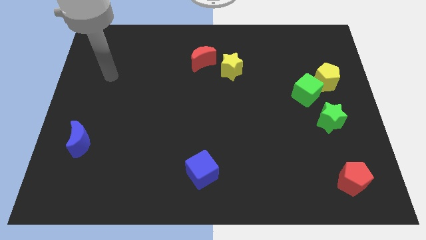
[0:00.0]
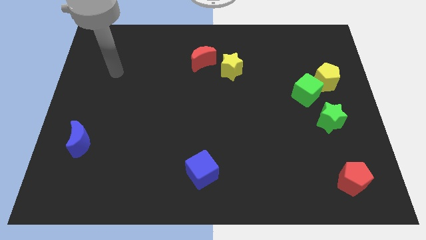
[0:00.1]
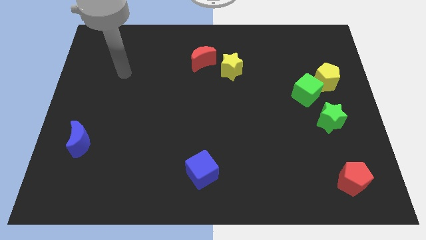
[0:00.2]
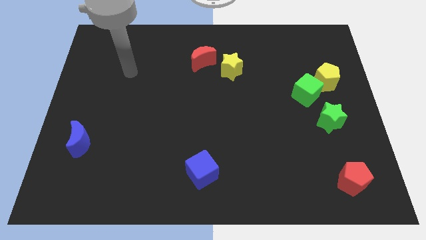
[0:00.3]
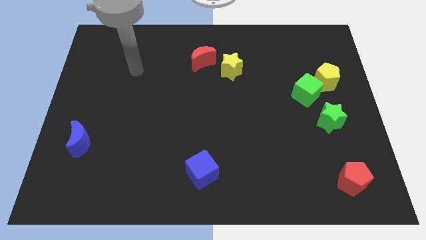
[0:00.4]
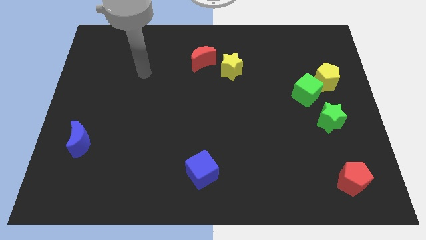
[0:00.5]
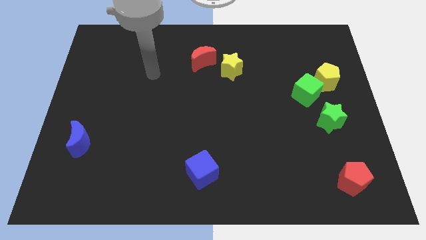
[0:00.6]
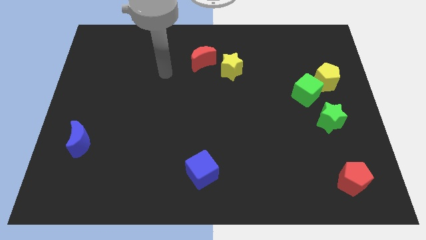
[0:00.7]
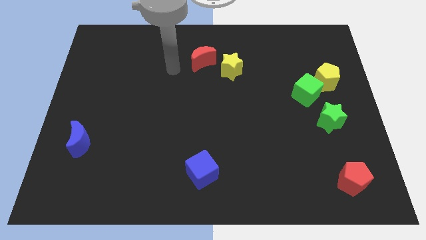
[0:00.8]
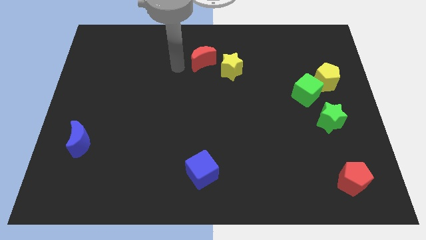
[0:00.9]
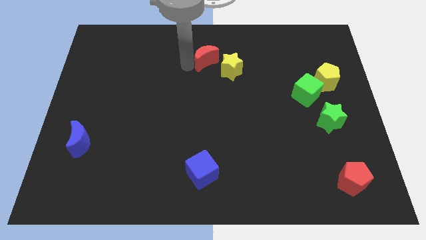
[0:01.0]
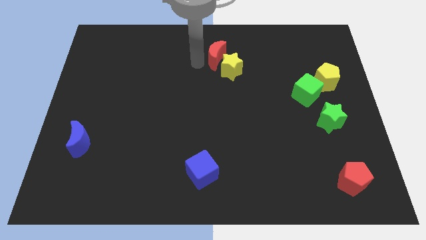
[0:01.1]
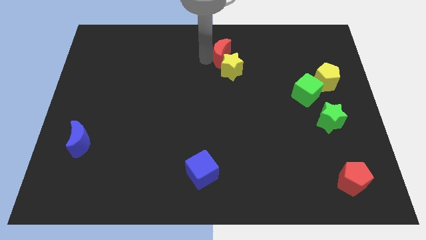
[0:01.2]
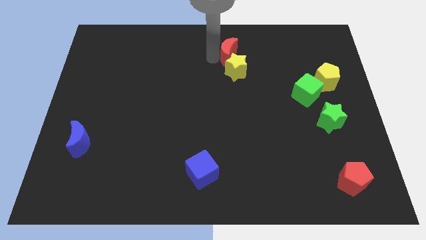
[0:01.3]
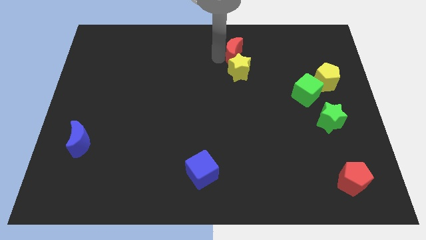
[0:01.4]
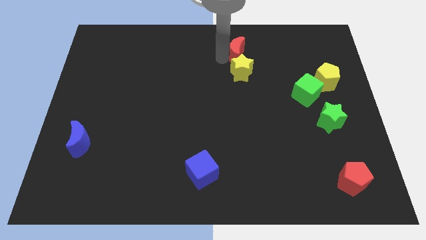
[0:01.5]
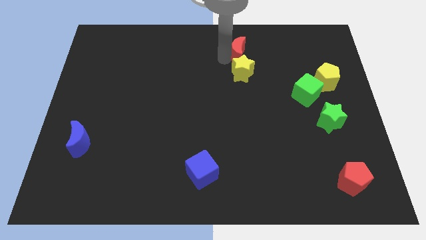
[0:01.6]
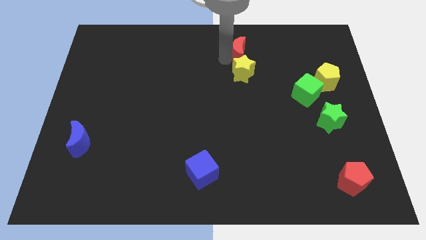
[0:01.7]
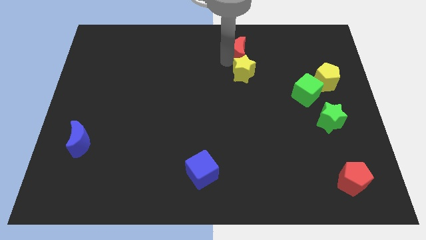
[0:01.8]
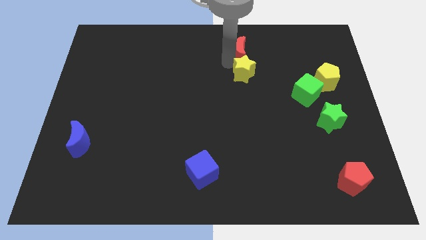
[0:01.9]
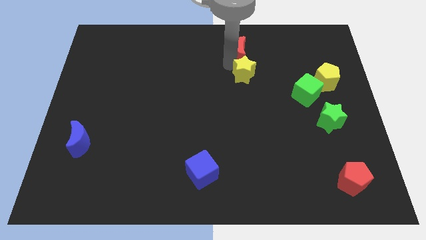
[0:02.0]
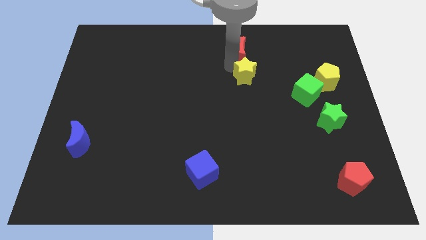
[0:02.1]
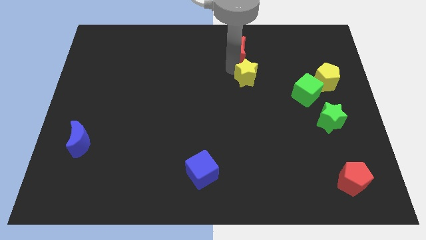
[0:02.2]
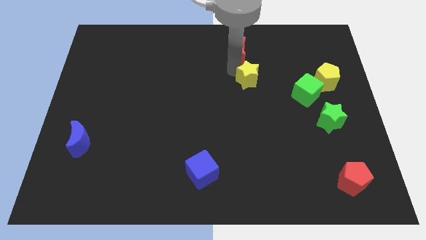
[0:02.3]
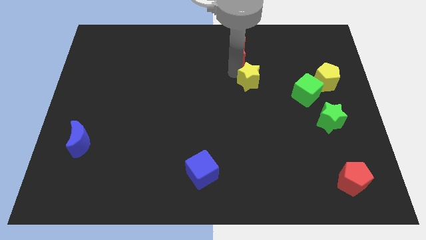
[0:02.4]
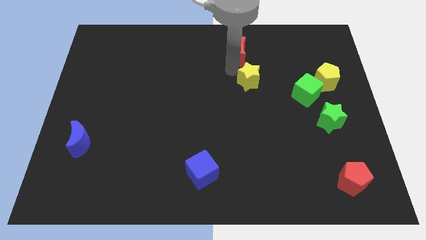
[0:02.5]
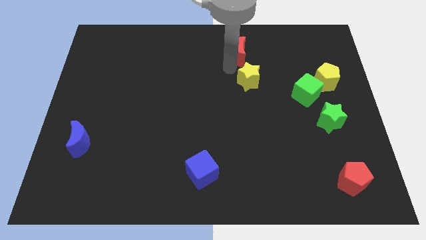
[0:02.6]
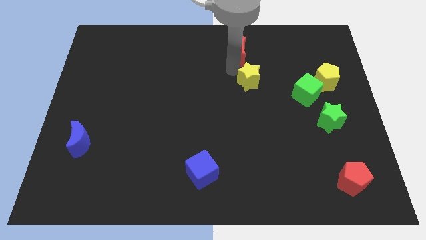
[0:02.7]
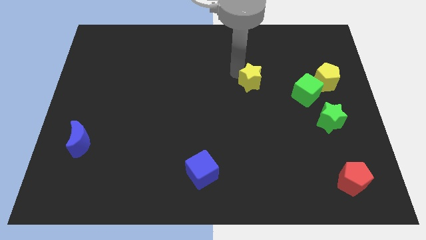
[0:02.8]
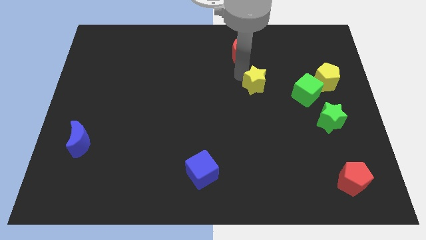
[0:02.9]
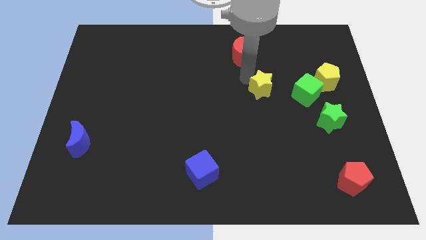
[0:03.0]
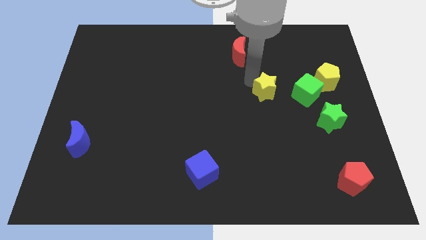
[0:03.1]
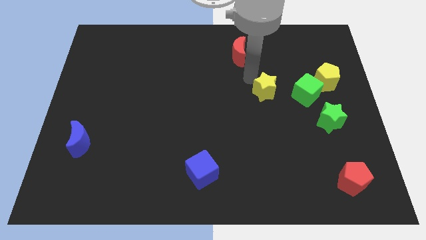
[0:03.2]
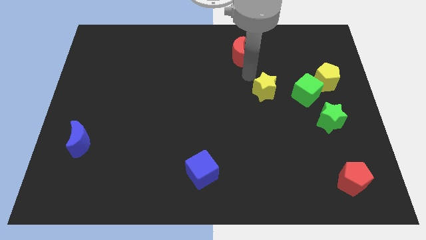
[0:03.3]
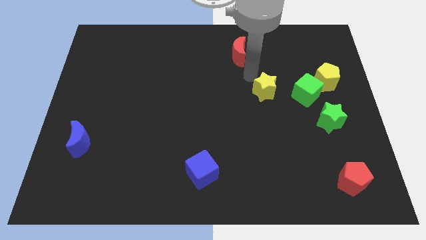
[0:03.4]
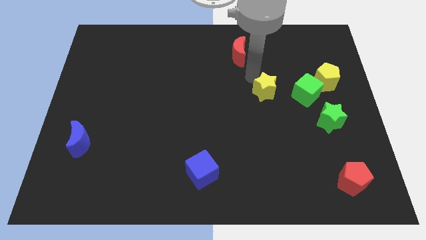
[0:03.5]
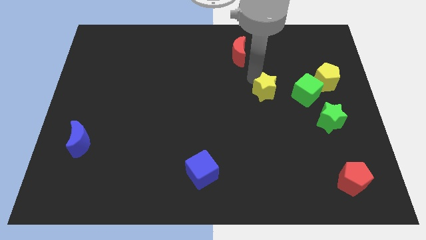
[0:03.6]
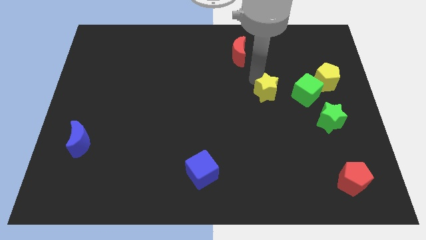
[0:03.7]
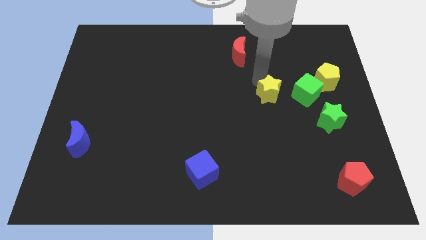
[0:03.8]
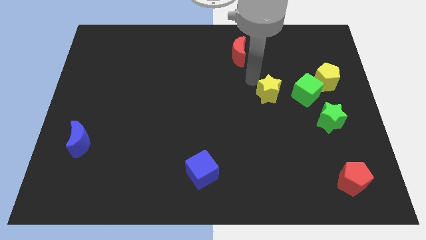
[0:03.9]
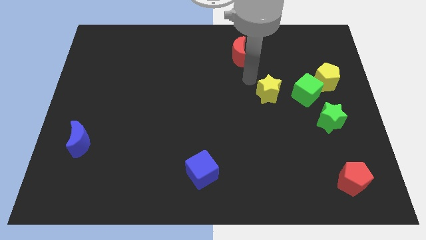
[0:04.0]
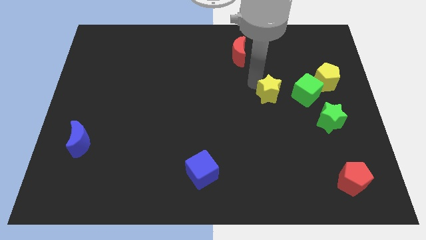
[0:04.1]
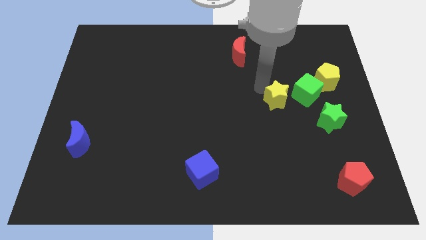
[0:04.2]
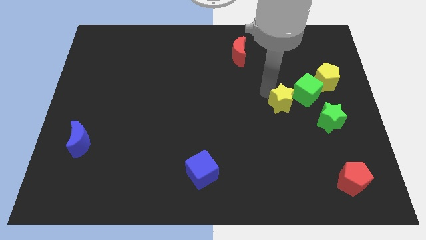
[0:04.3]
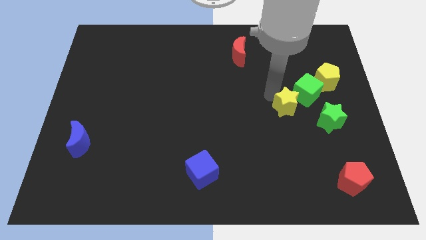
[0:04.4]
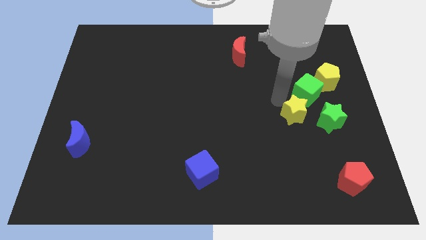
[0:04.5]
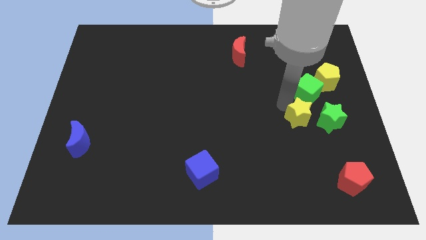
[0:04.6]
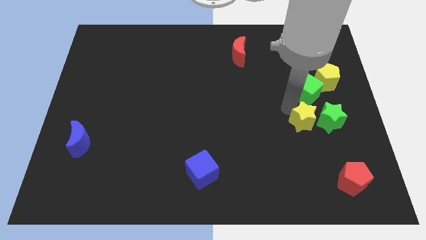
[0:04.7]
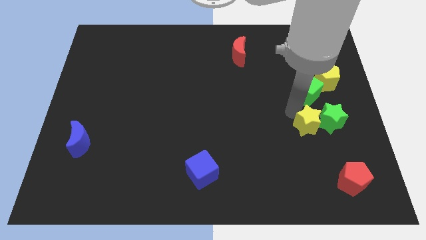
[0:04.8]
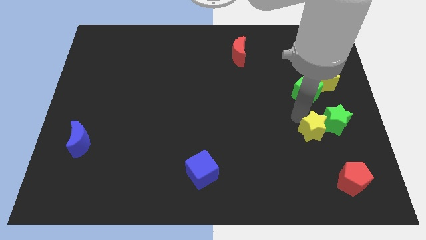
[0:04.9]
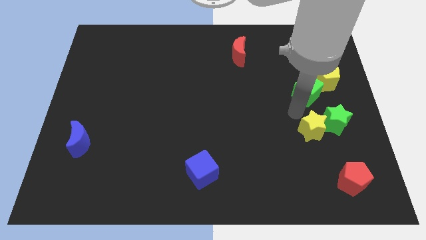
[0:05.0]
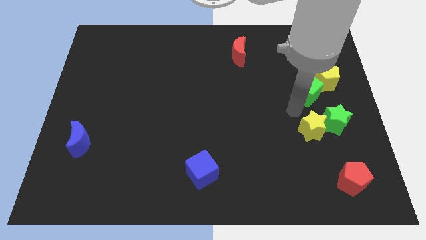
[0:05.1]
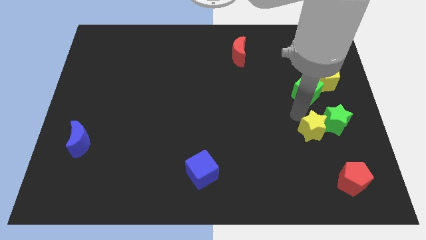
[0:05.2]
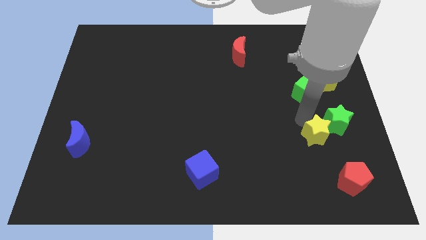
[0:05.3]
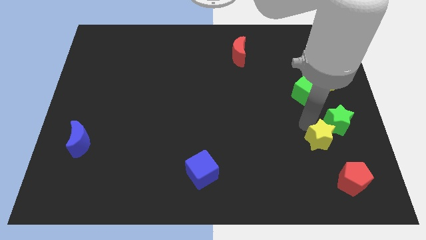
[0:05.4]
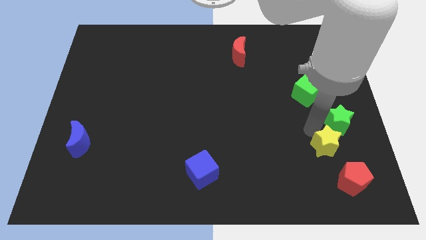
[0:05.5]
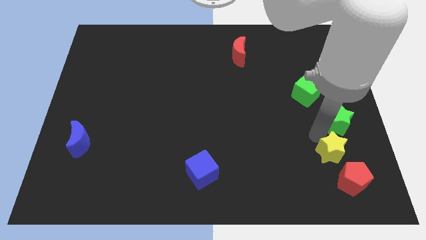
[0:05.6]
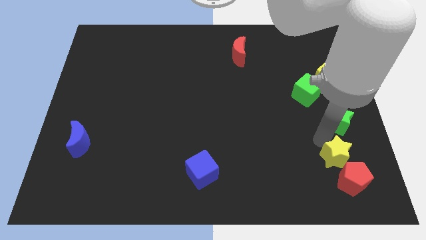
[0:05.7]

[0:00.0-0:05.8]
slide the yellow star to the red pentagon

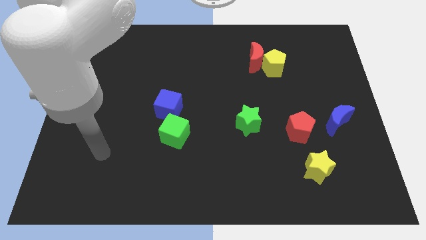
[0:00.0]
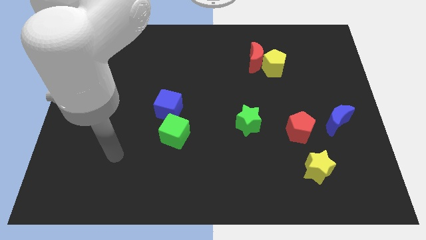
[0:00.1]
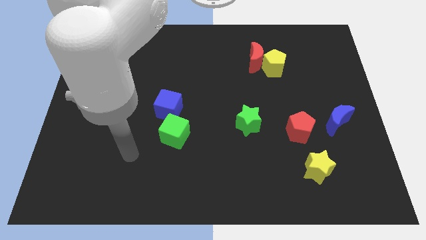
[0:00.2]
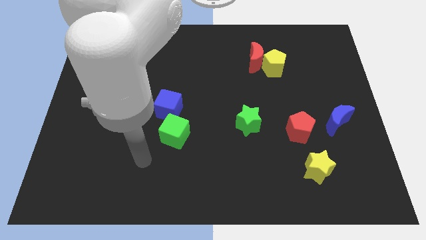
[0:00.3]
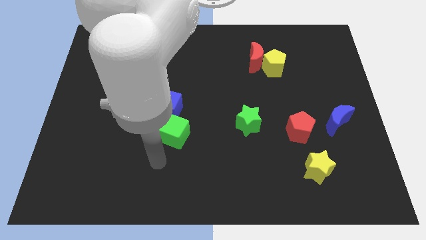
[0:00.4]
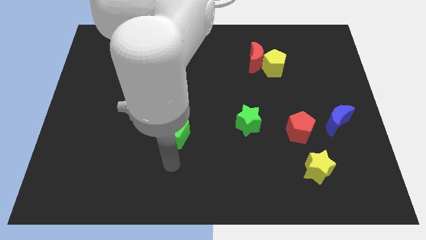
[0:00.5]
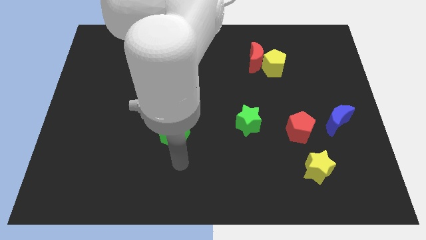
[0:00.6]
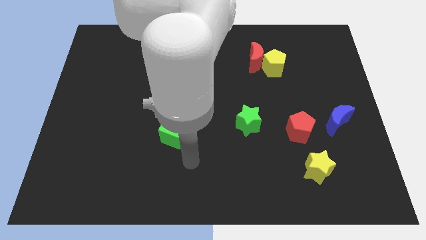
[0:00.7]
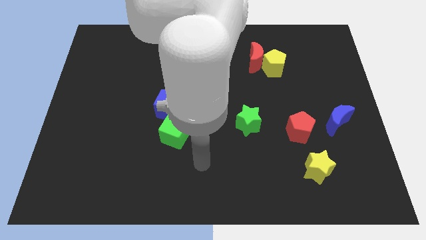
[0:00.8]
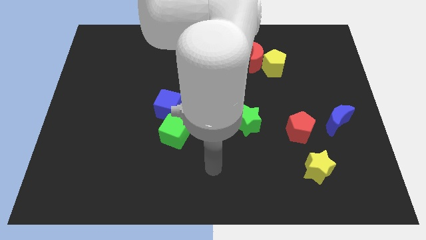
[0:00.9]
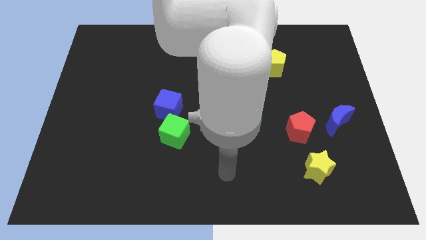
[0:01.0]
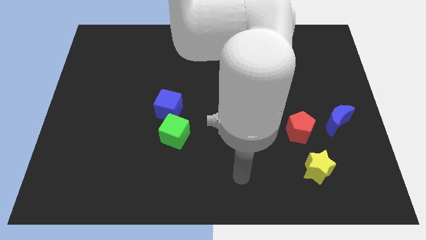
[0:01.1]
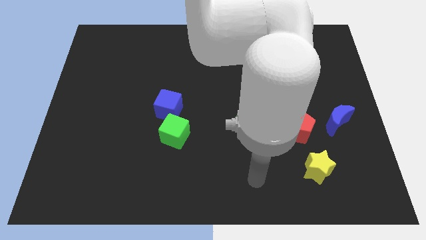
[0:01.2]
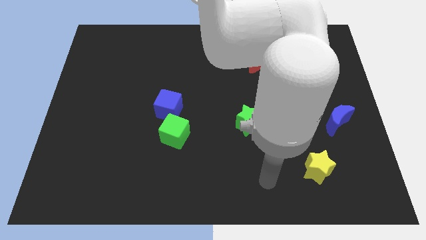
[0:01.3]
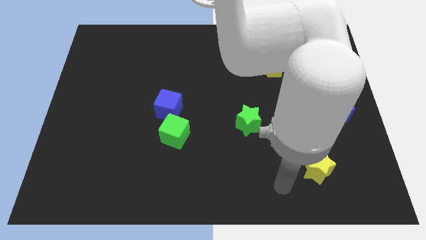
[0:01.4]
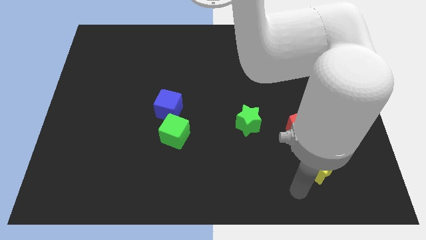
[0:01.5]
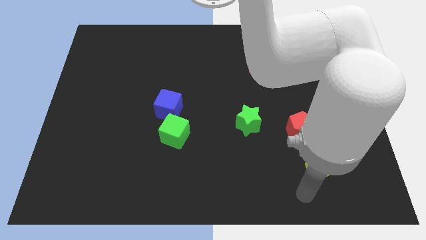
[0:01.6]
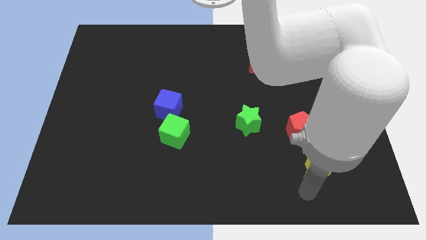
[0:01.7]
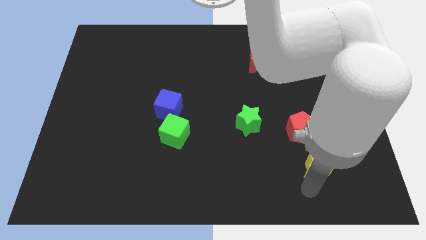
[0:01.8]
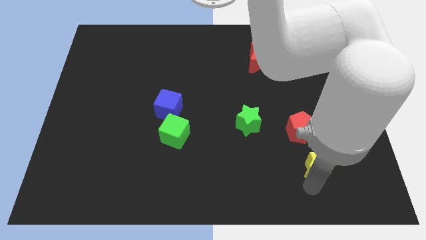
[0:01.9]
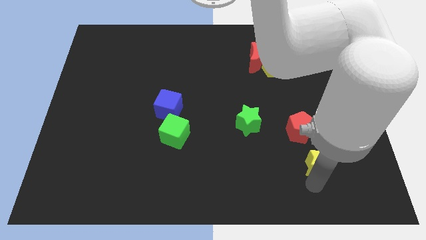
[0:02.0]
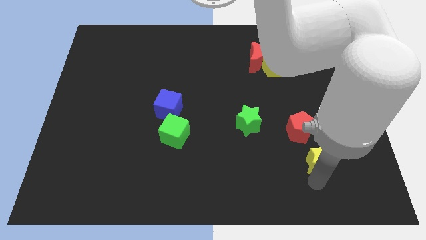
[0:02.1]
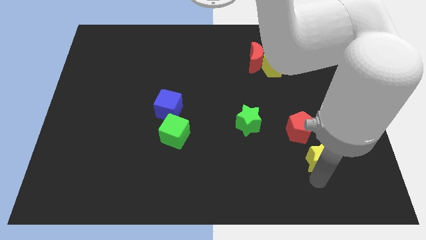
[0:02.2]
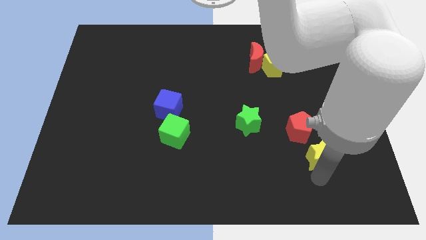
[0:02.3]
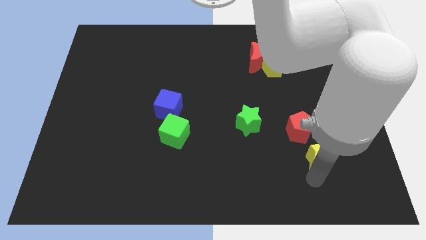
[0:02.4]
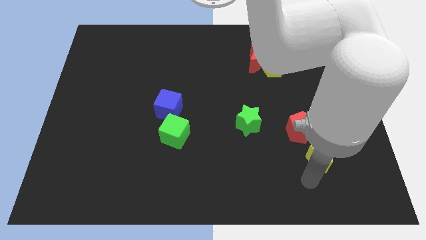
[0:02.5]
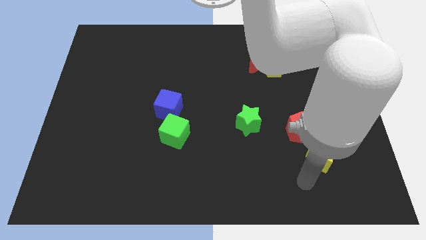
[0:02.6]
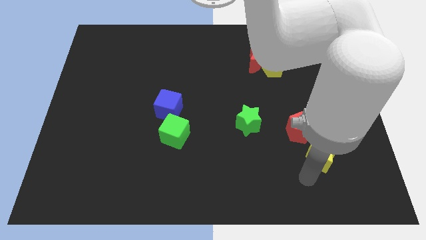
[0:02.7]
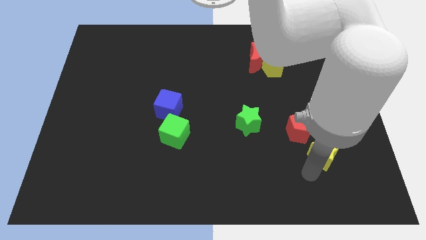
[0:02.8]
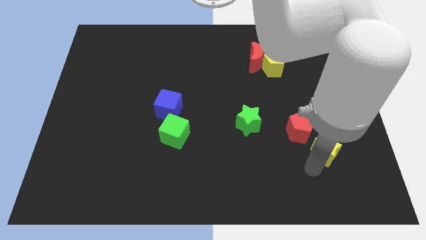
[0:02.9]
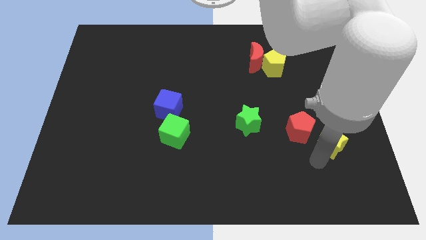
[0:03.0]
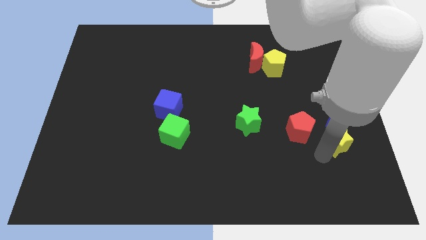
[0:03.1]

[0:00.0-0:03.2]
move the yellow star close to the blue moon
